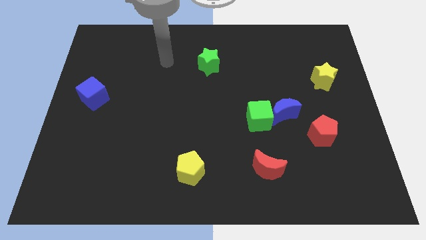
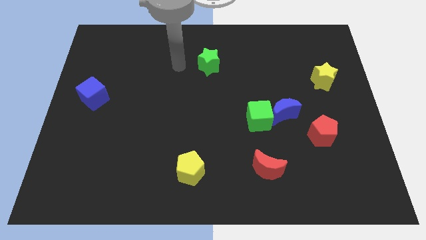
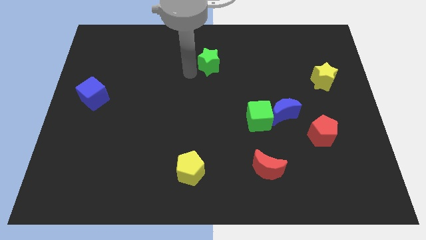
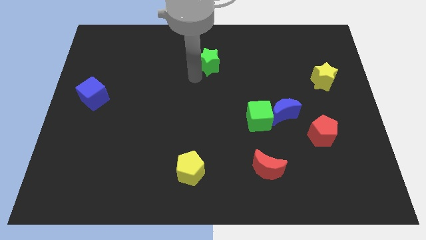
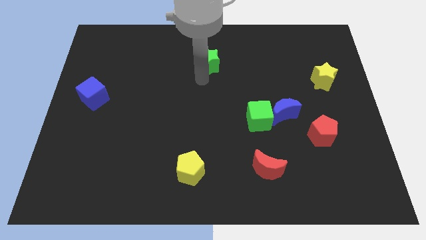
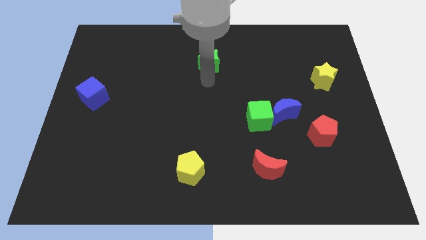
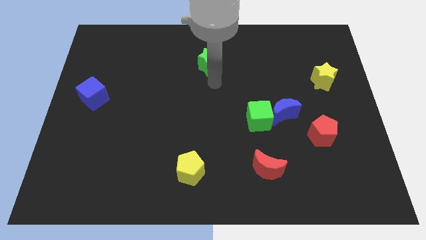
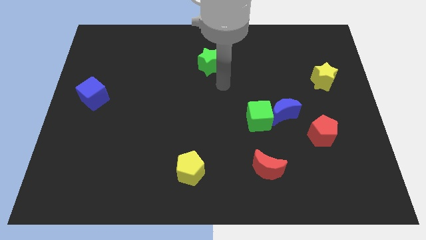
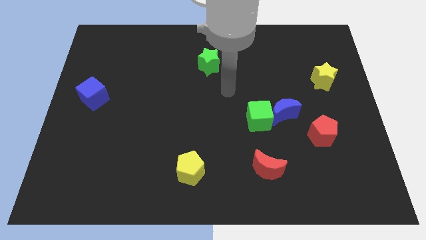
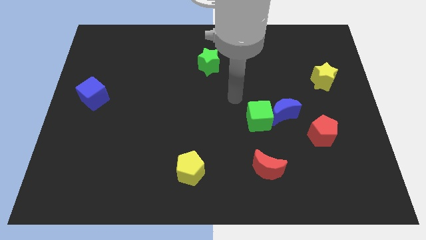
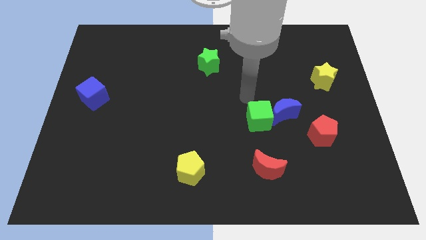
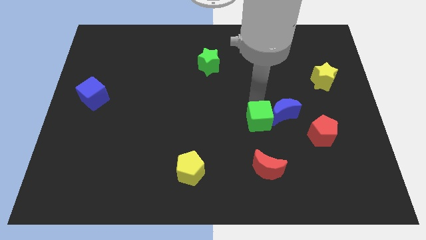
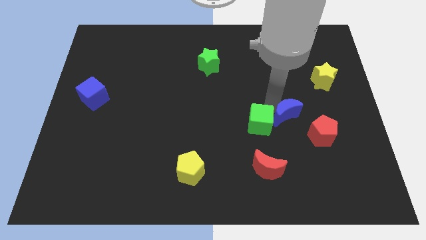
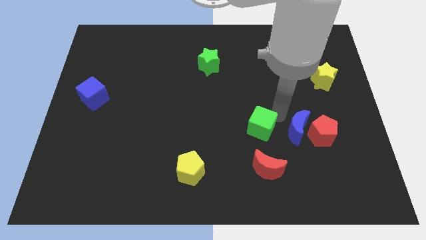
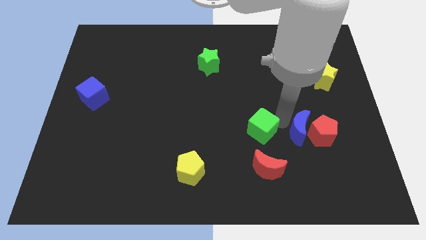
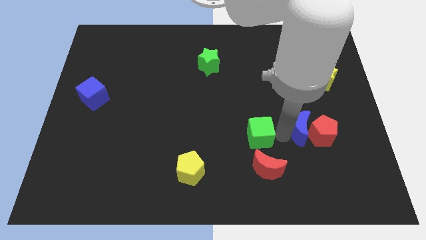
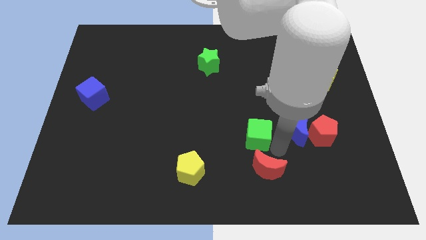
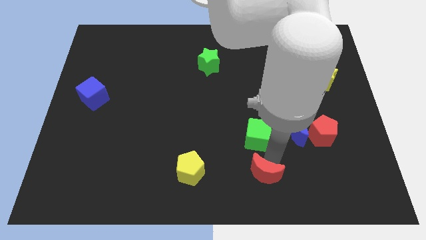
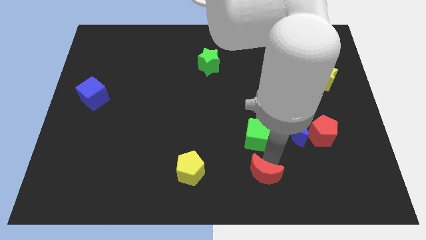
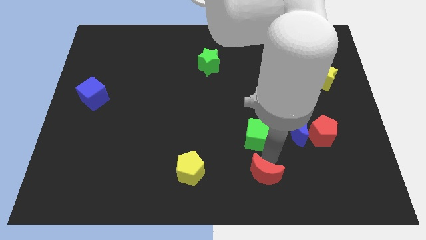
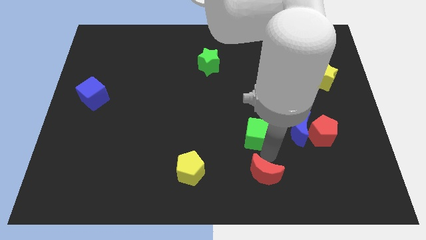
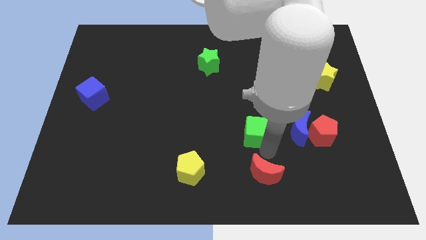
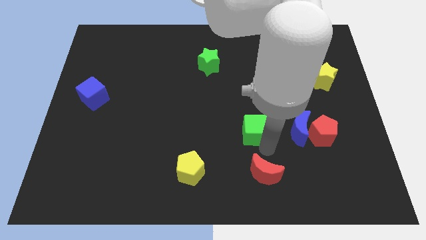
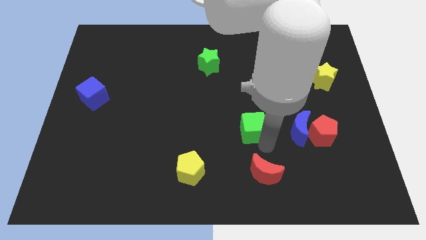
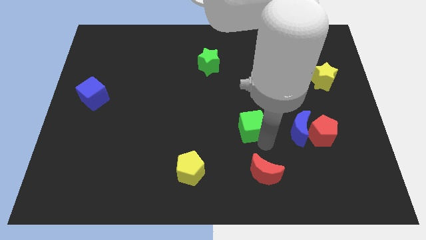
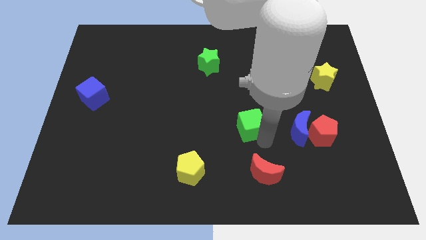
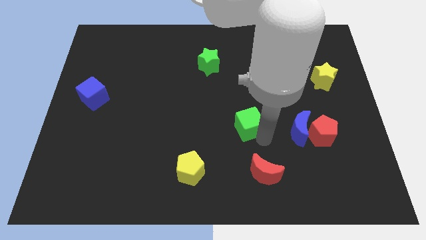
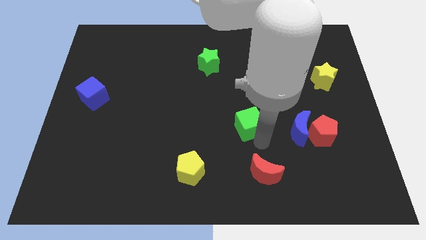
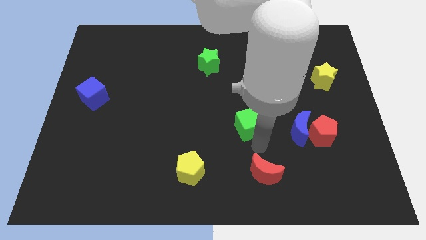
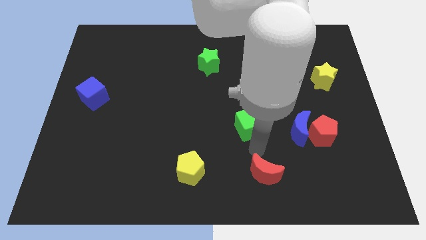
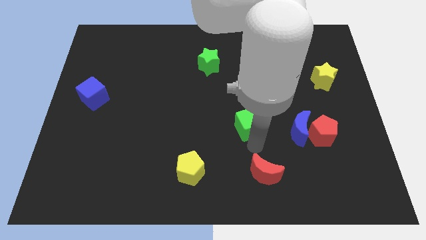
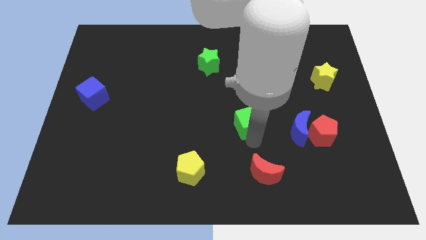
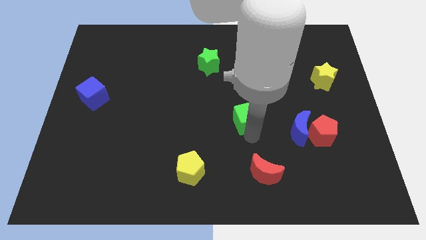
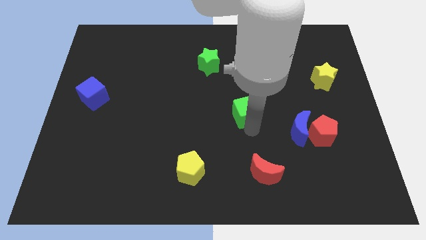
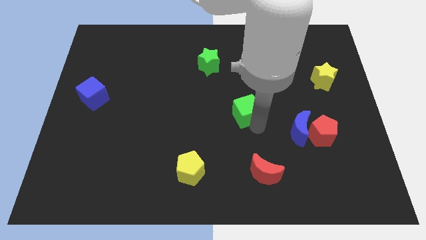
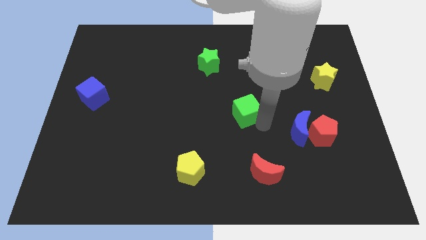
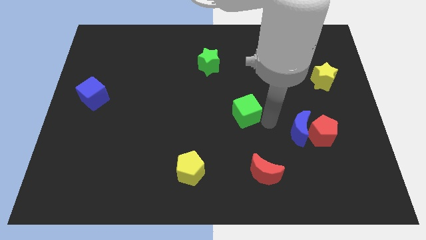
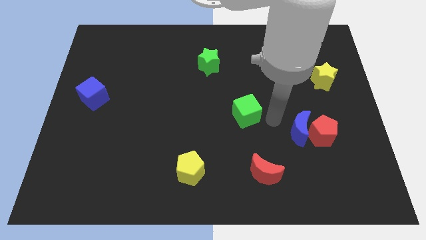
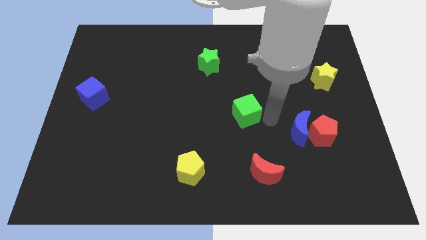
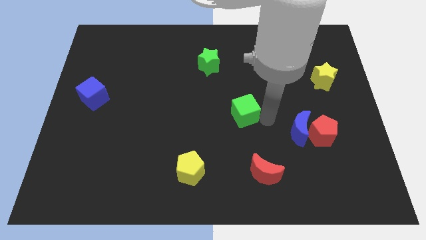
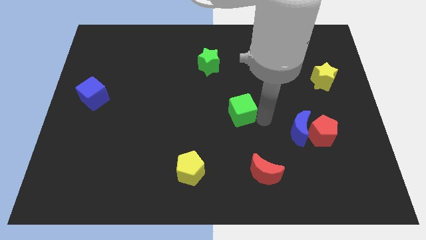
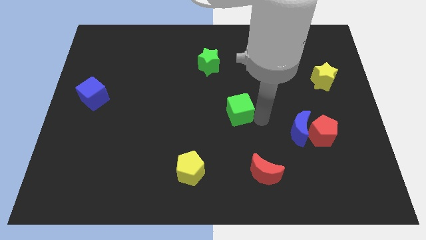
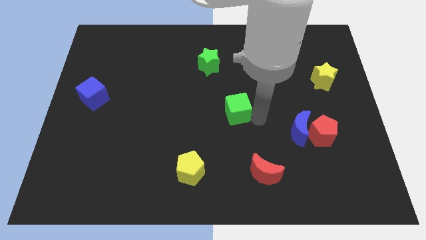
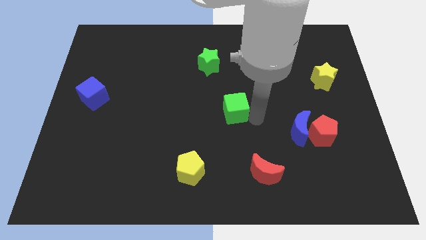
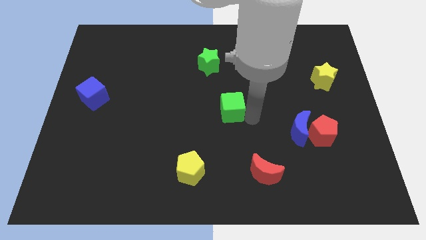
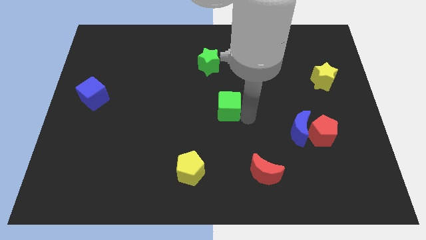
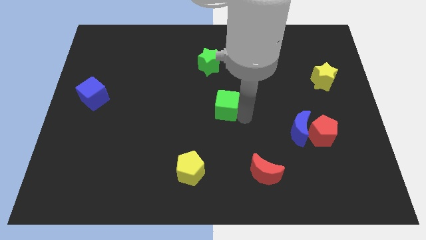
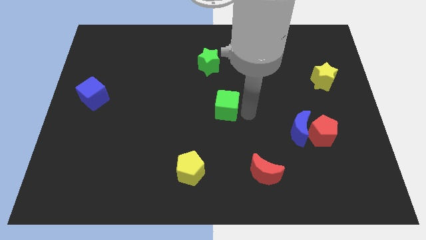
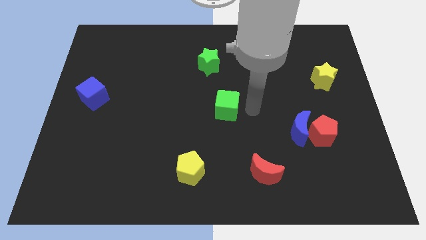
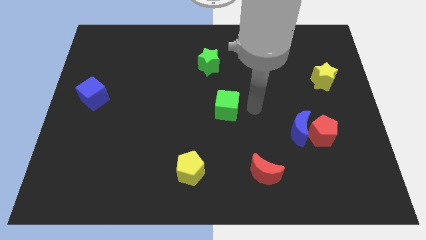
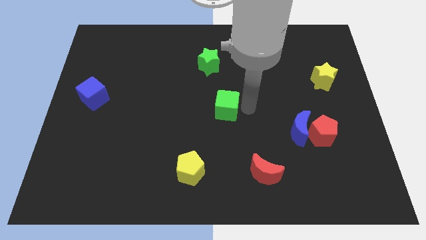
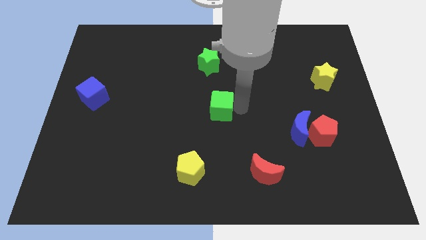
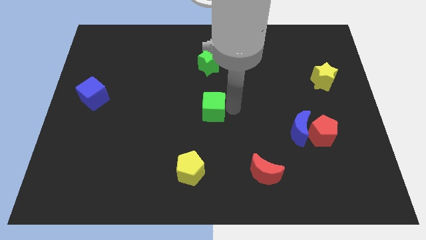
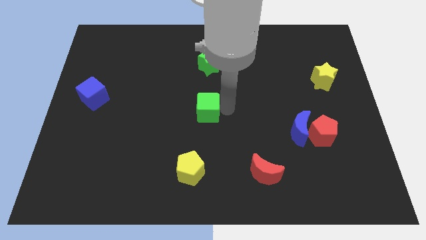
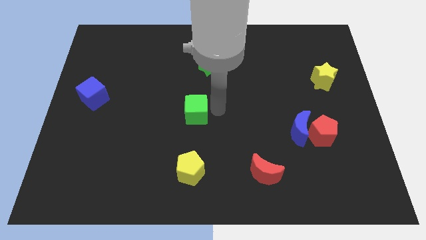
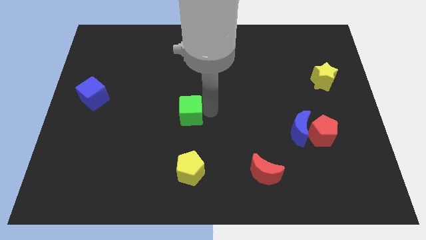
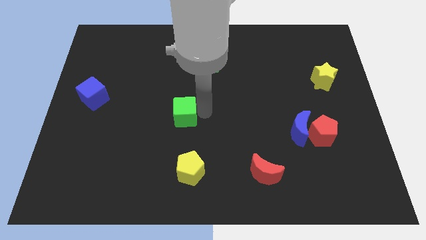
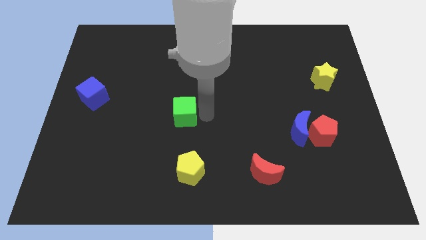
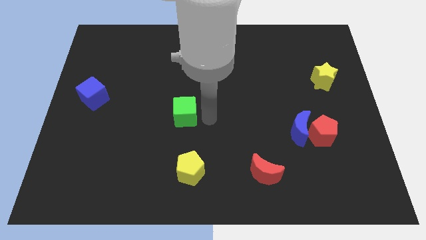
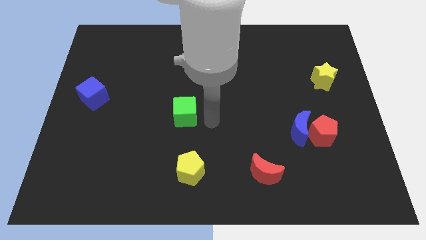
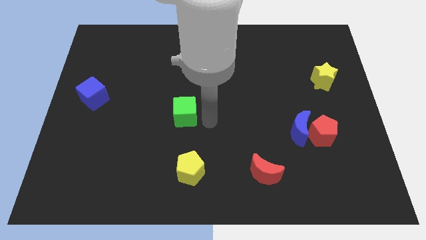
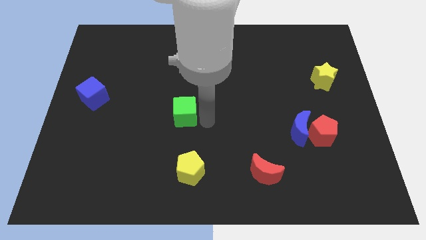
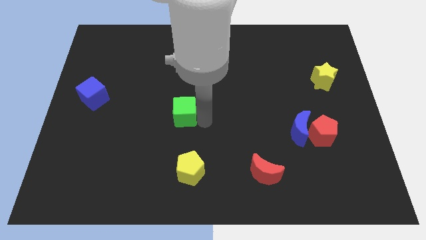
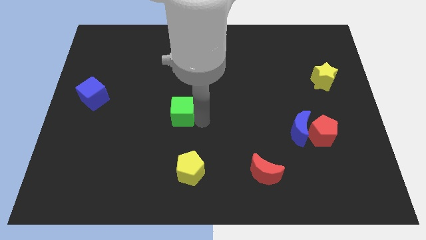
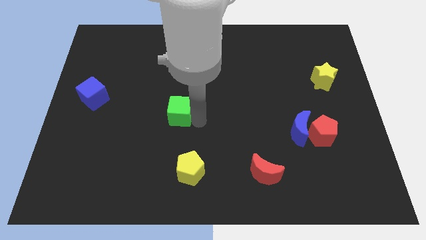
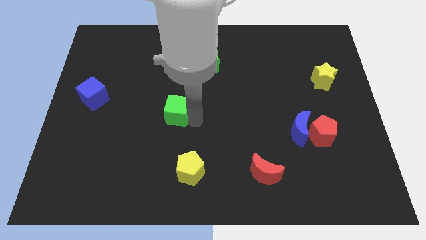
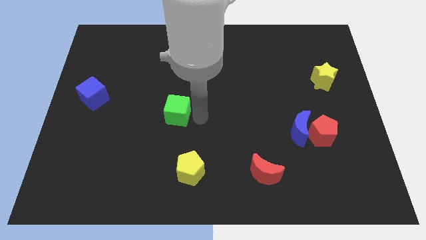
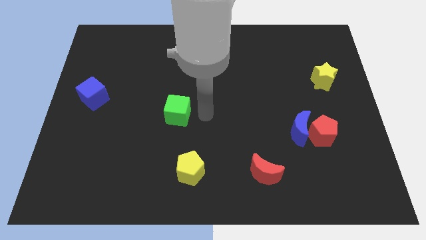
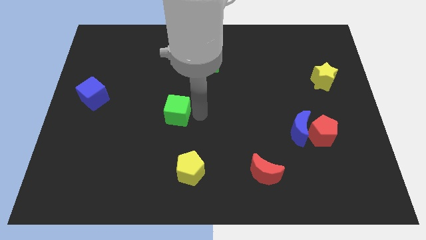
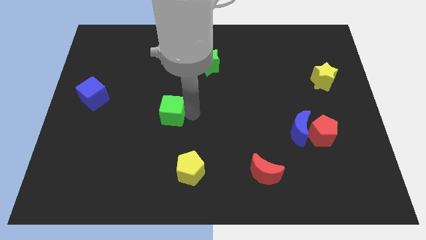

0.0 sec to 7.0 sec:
push the green cube left

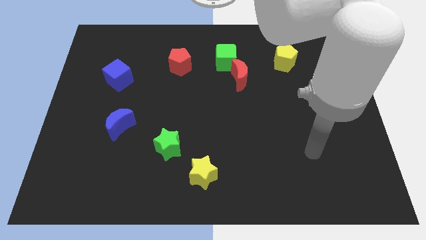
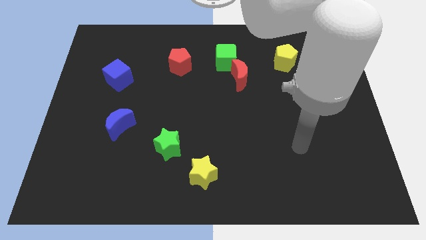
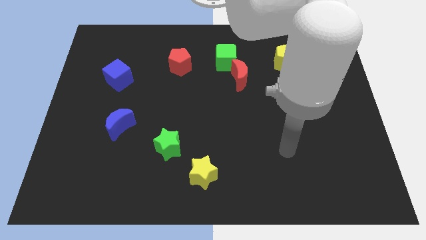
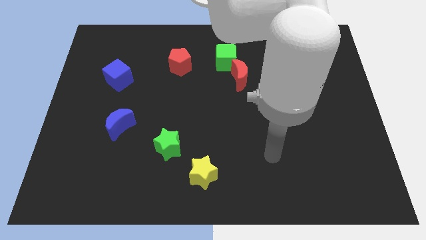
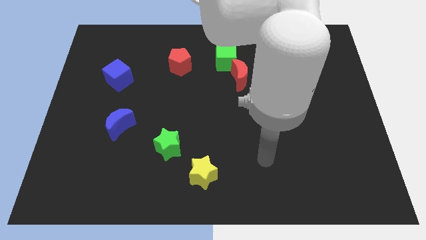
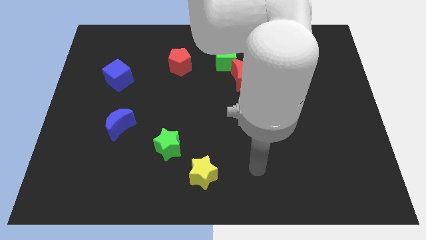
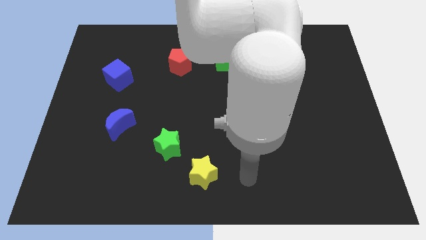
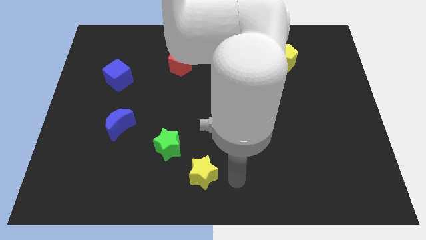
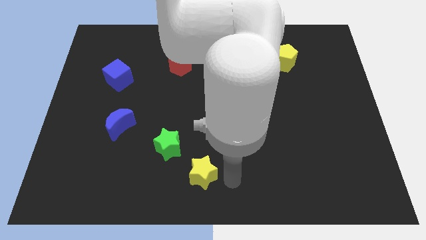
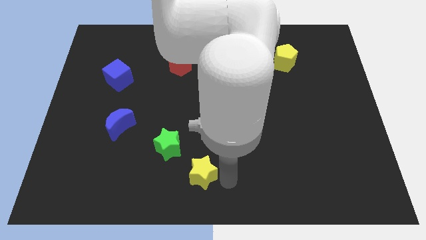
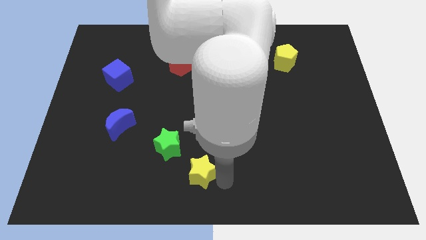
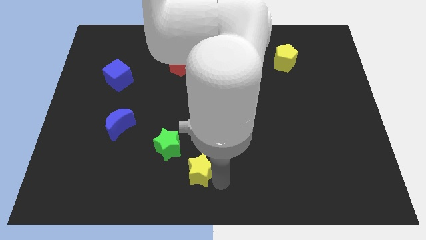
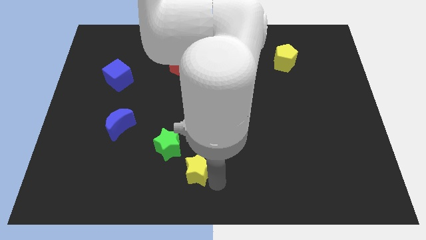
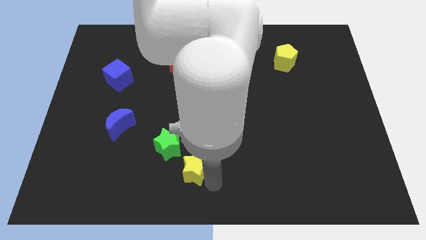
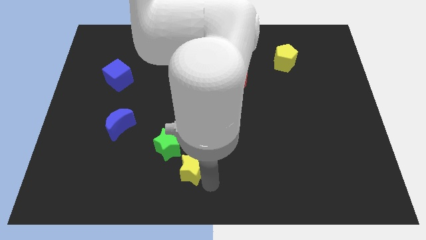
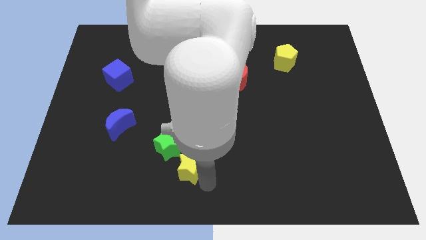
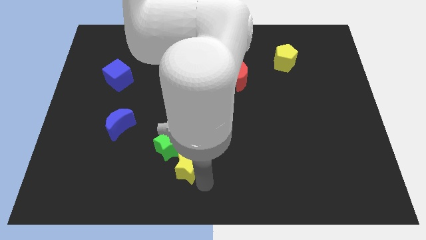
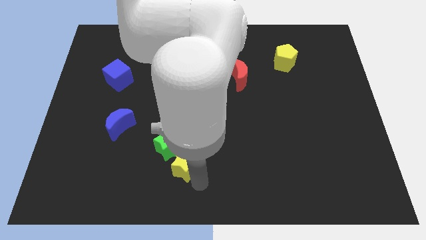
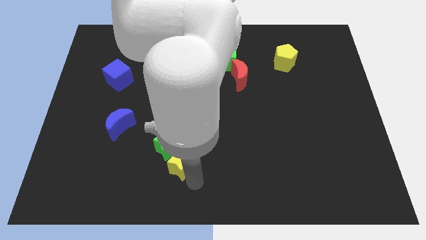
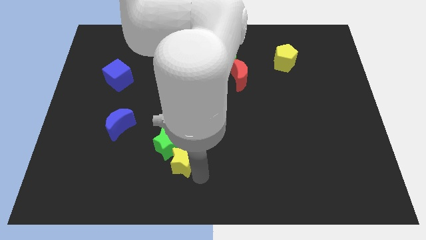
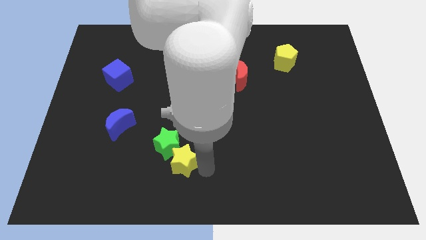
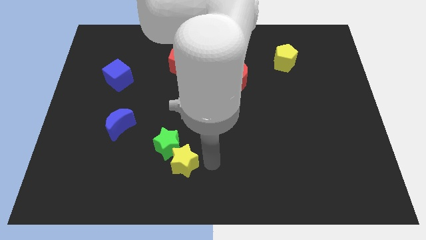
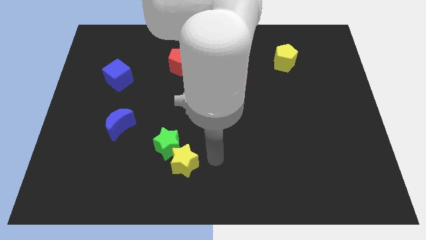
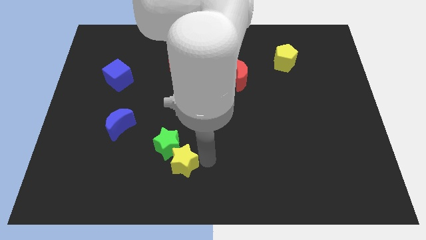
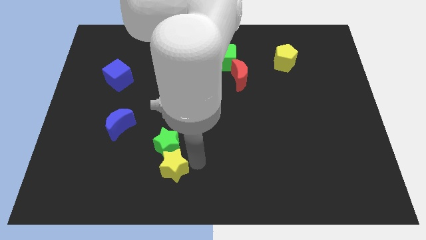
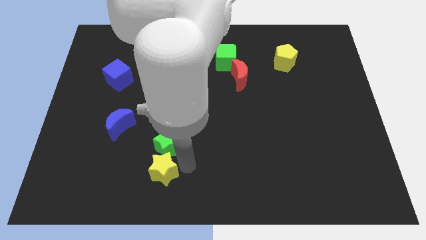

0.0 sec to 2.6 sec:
slightly push the yellow star to the left
